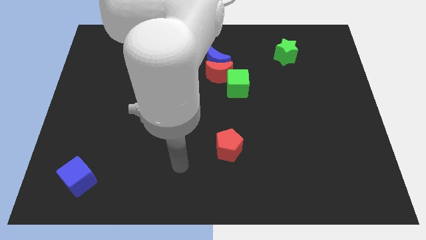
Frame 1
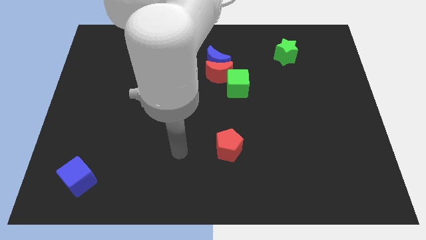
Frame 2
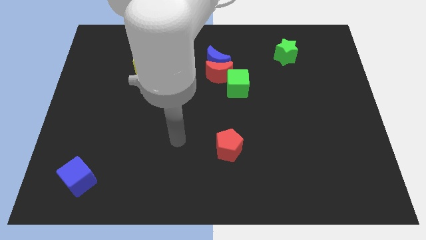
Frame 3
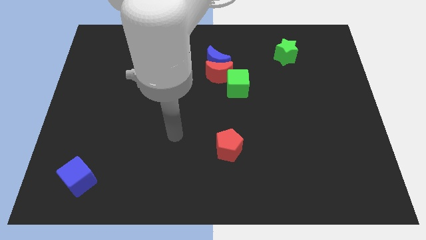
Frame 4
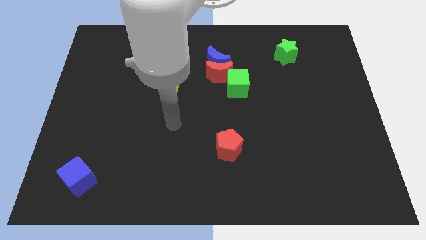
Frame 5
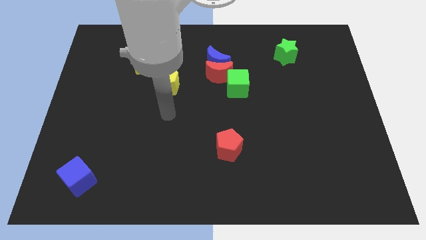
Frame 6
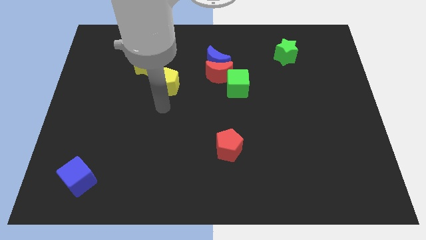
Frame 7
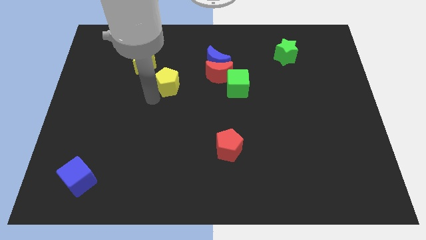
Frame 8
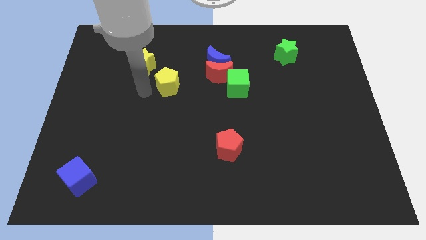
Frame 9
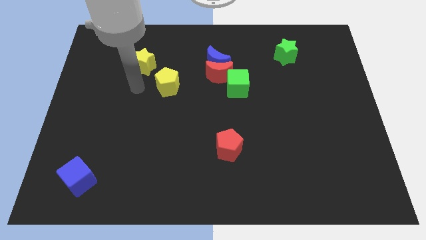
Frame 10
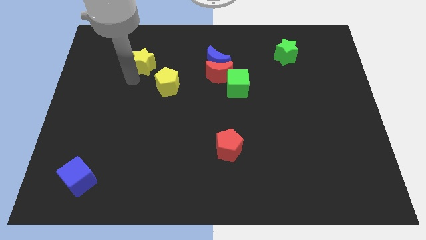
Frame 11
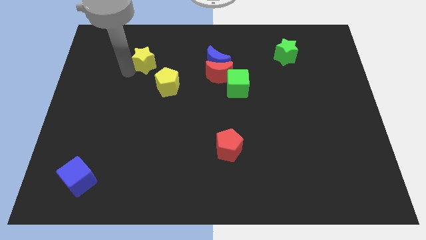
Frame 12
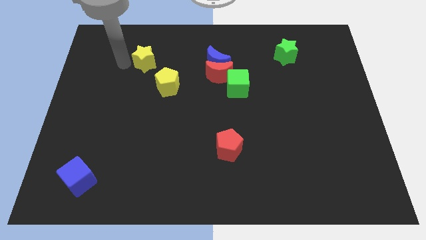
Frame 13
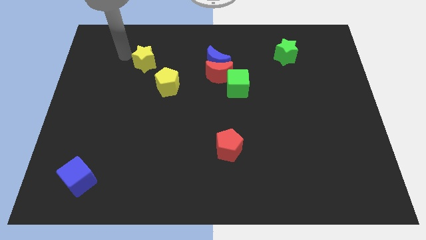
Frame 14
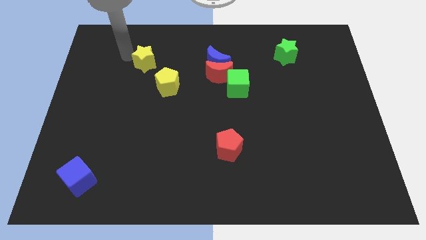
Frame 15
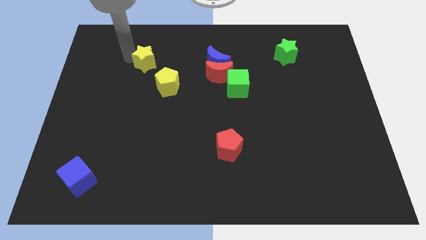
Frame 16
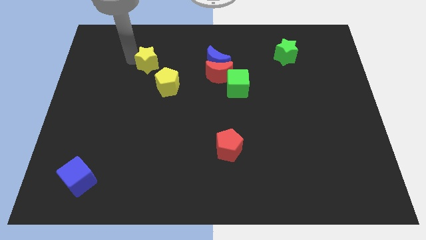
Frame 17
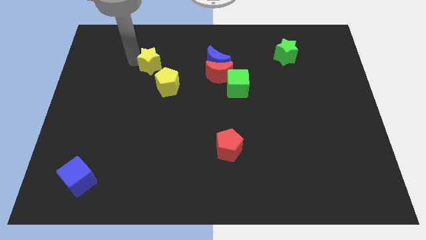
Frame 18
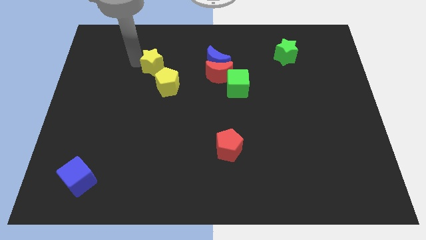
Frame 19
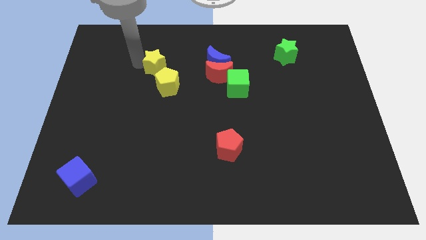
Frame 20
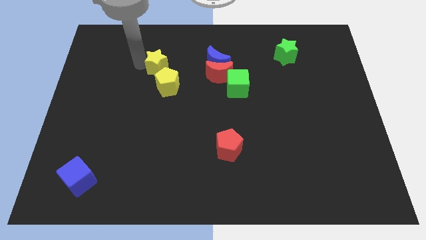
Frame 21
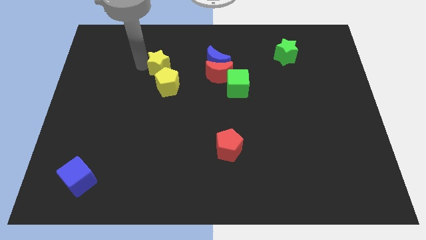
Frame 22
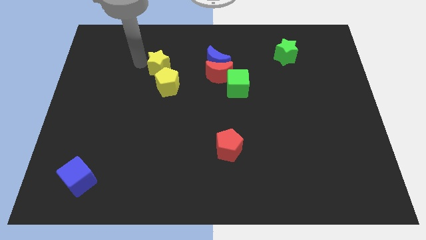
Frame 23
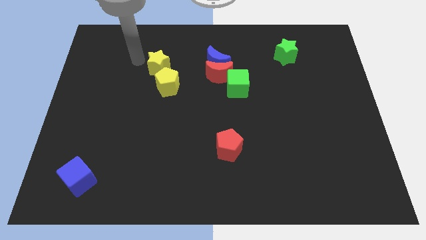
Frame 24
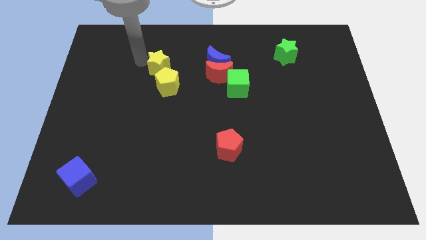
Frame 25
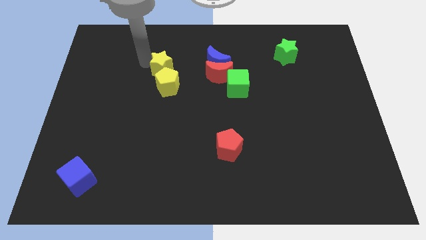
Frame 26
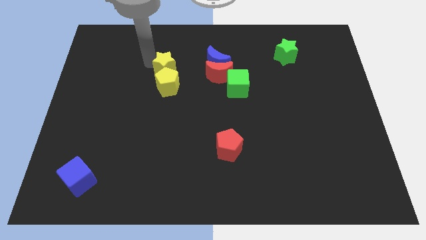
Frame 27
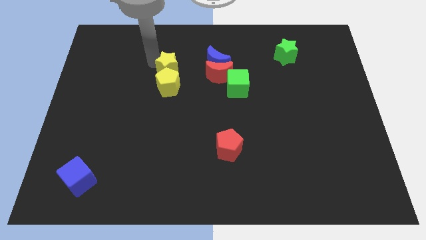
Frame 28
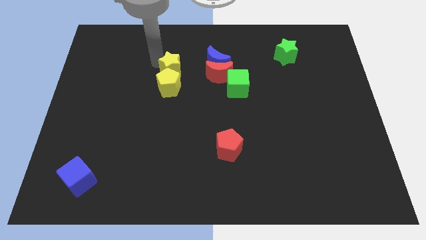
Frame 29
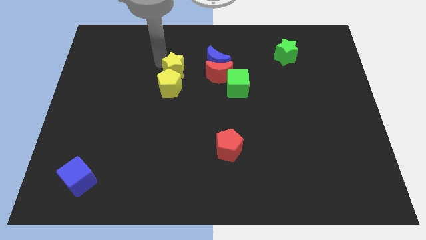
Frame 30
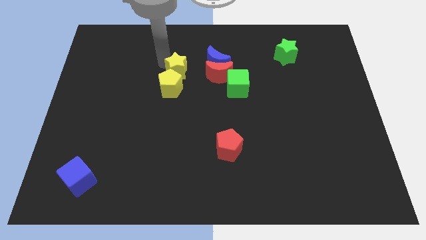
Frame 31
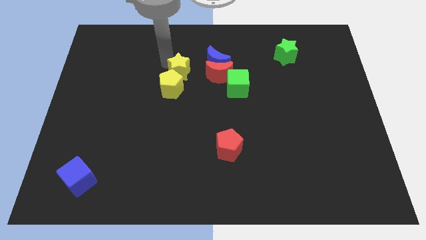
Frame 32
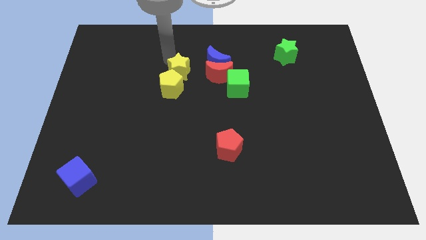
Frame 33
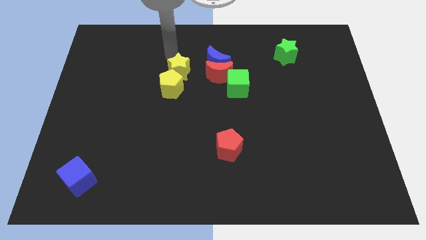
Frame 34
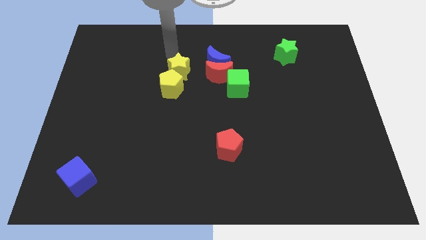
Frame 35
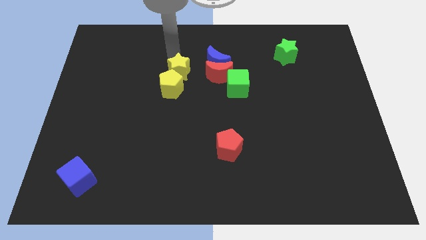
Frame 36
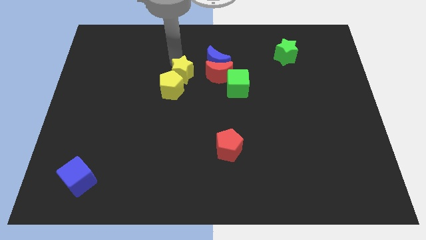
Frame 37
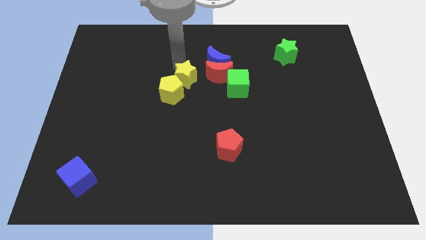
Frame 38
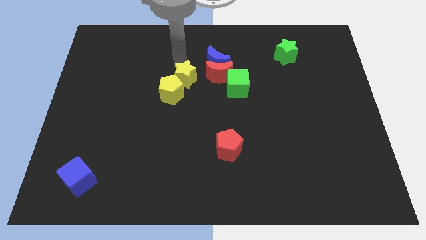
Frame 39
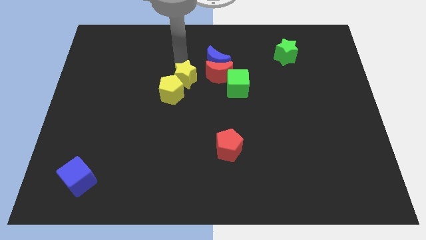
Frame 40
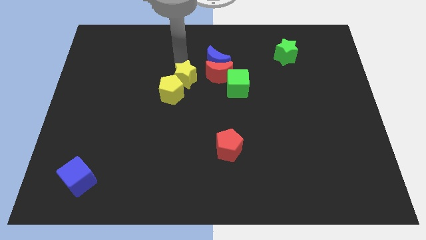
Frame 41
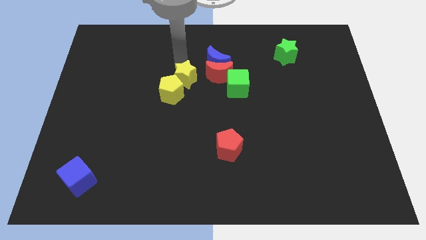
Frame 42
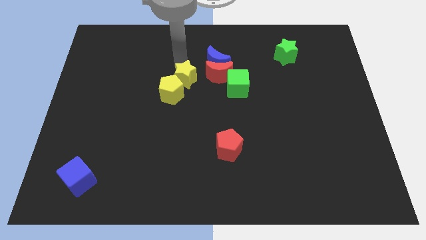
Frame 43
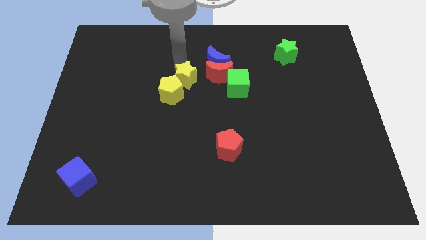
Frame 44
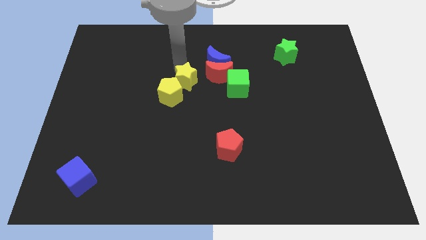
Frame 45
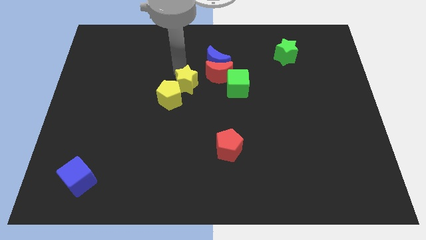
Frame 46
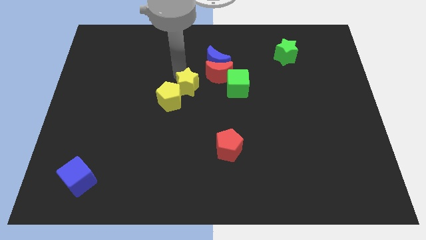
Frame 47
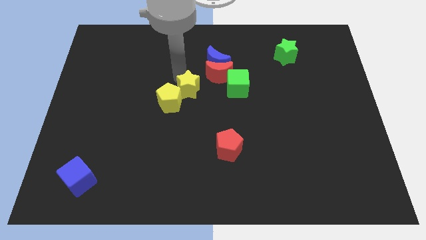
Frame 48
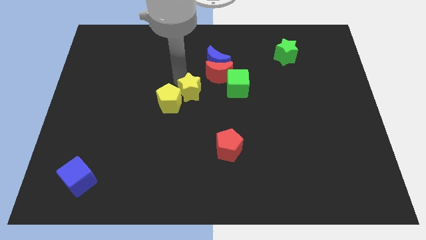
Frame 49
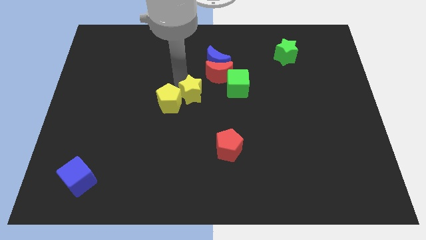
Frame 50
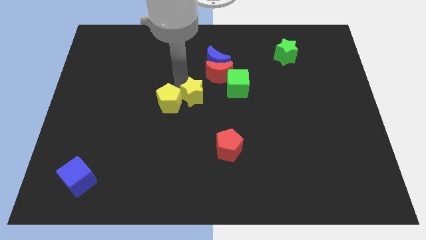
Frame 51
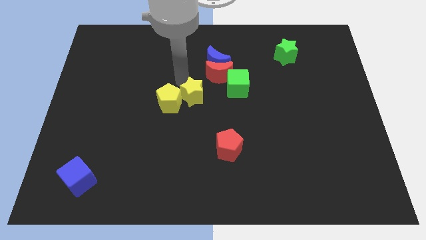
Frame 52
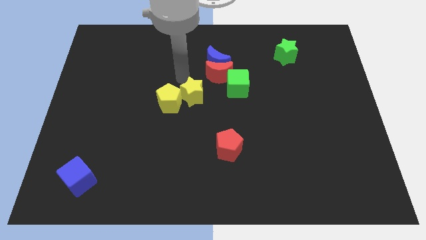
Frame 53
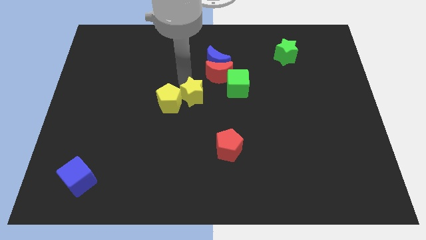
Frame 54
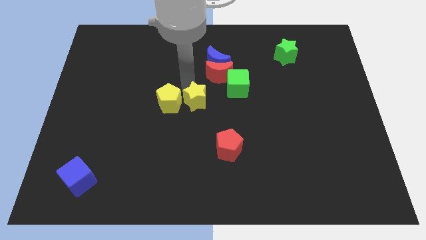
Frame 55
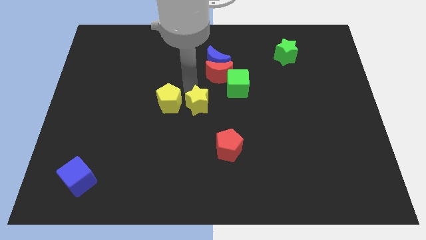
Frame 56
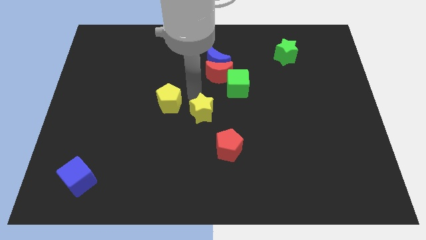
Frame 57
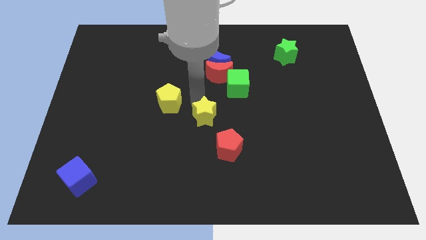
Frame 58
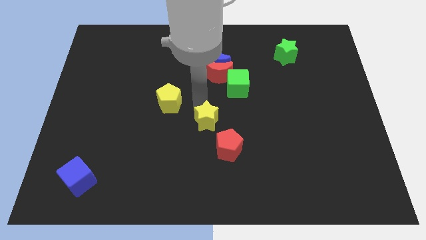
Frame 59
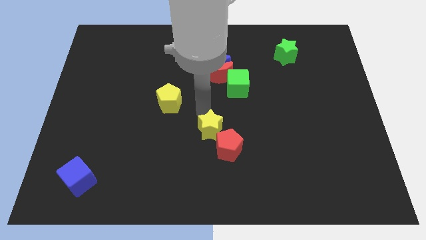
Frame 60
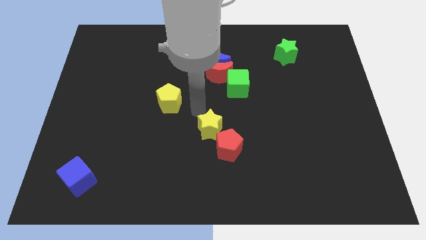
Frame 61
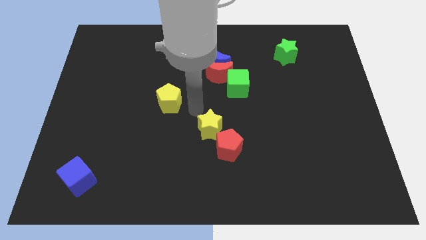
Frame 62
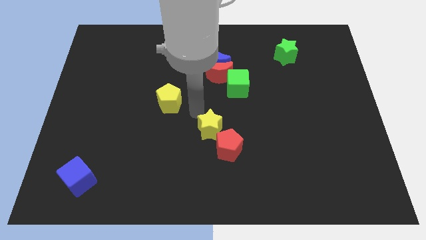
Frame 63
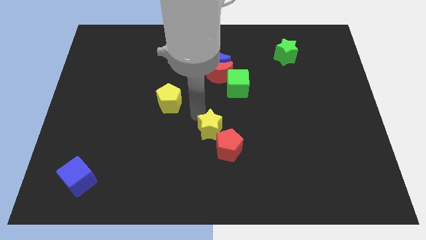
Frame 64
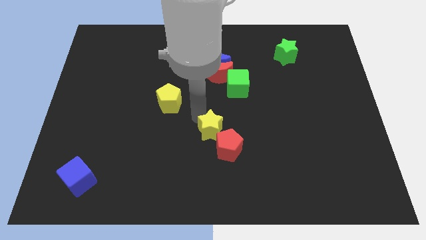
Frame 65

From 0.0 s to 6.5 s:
put the yellow star close to the red pentagon

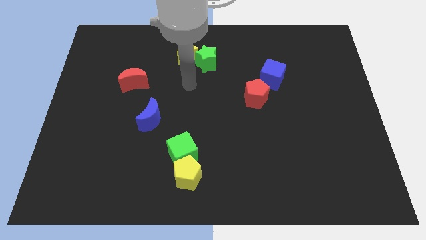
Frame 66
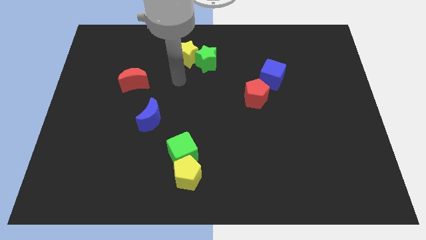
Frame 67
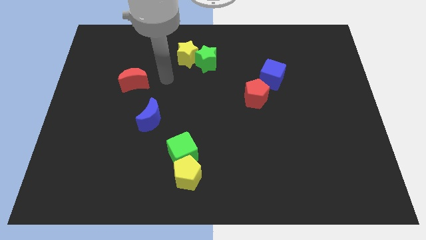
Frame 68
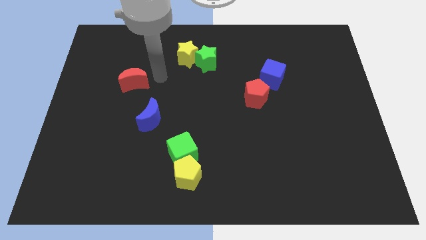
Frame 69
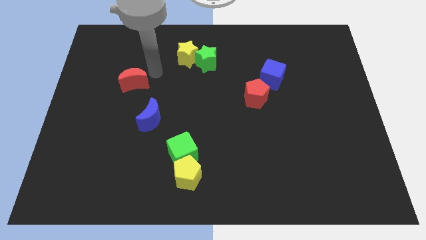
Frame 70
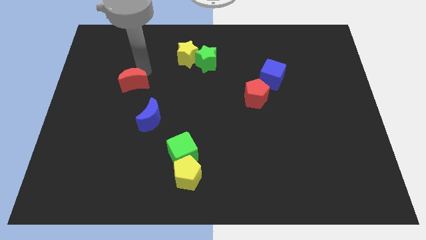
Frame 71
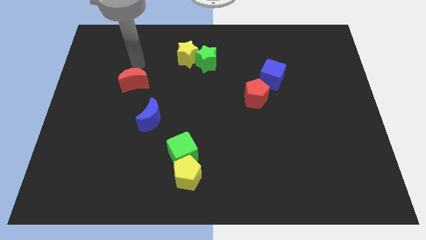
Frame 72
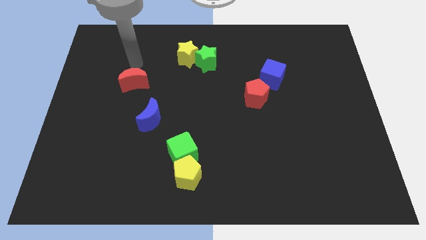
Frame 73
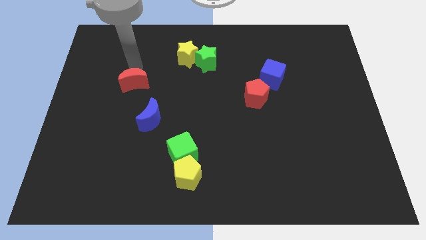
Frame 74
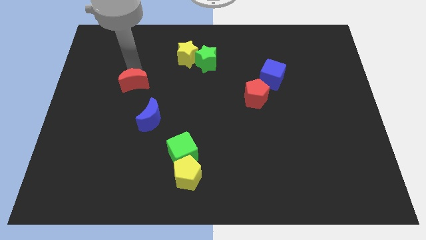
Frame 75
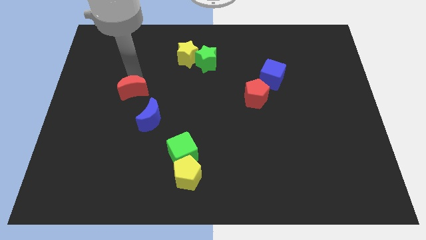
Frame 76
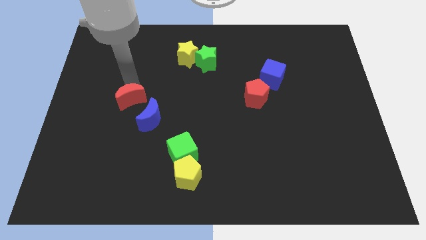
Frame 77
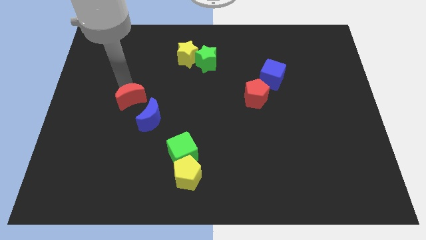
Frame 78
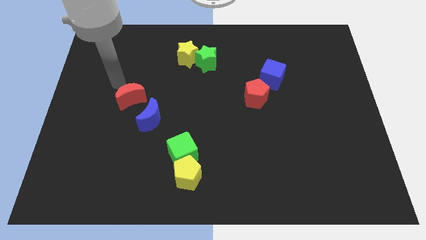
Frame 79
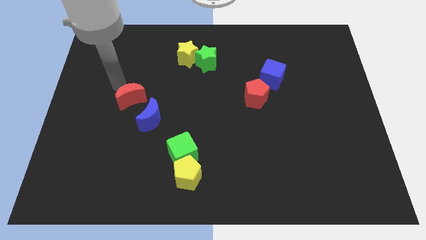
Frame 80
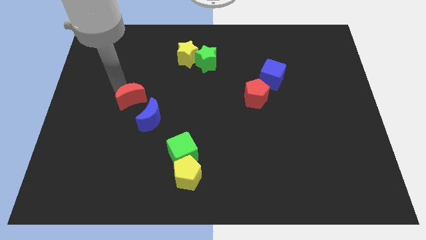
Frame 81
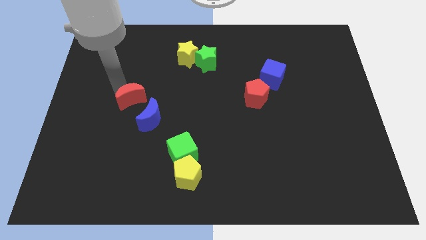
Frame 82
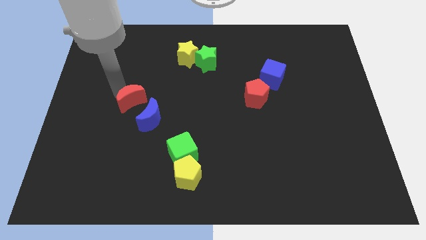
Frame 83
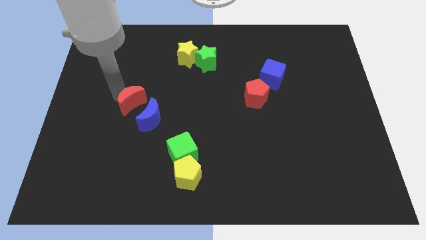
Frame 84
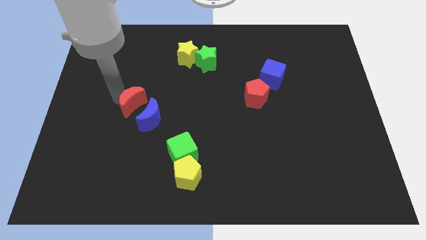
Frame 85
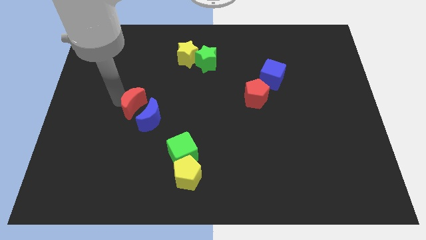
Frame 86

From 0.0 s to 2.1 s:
slide the red moon to the blue moon
